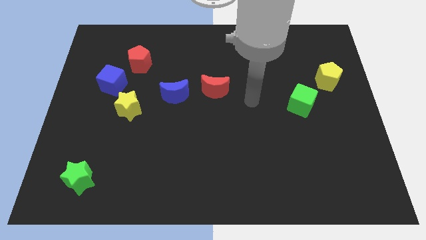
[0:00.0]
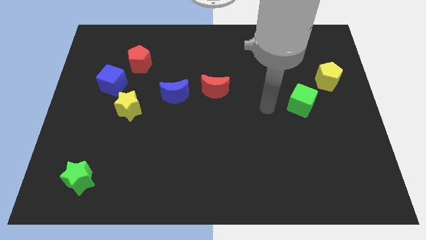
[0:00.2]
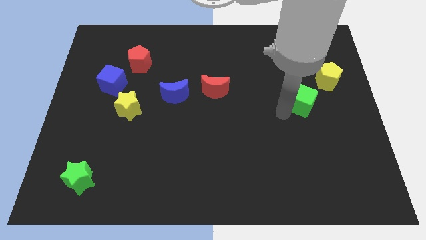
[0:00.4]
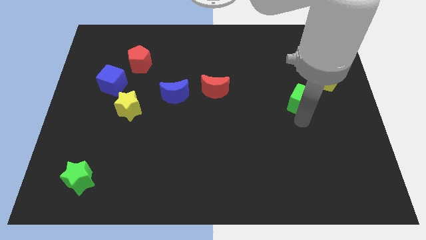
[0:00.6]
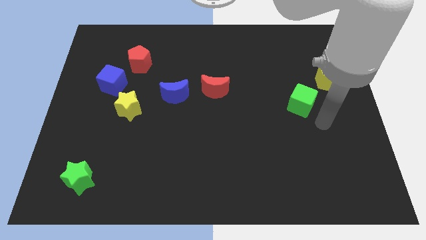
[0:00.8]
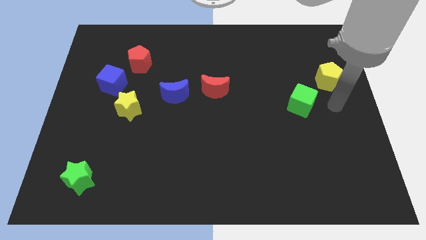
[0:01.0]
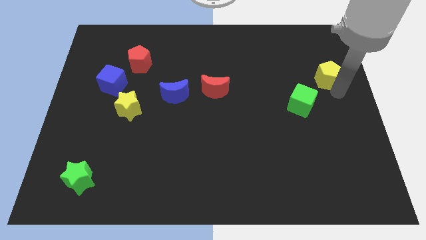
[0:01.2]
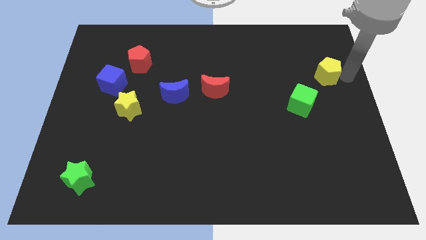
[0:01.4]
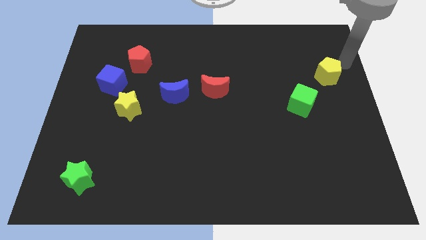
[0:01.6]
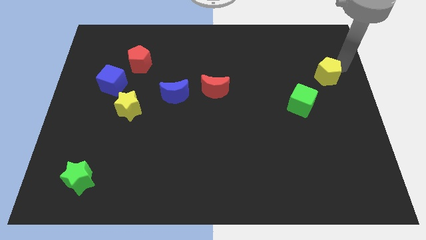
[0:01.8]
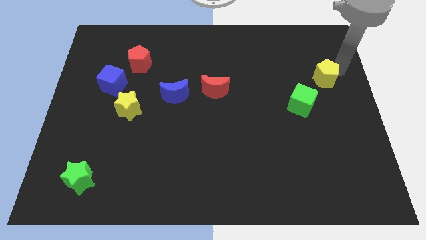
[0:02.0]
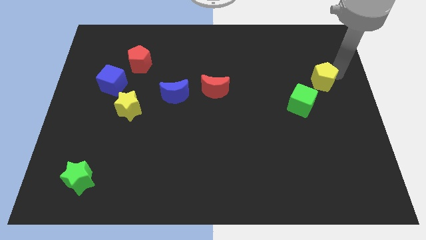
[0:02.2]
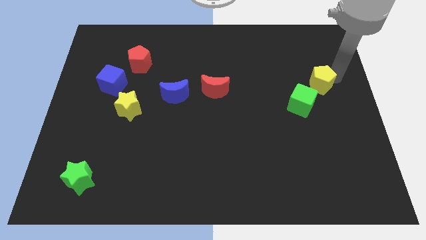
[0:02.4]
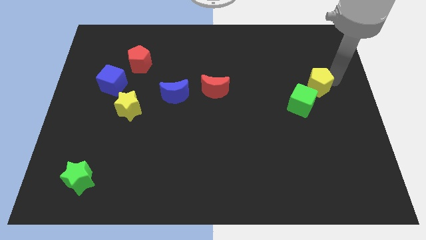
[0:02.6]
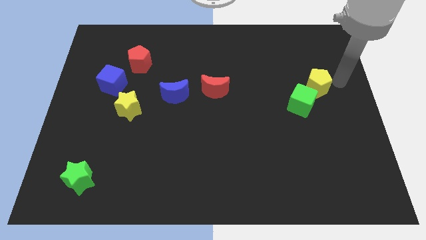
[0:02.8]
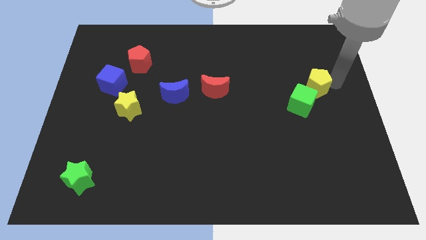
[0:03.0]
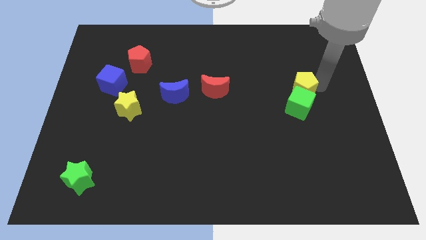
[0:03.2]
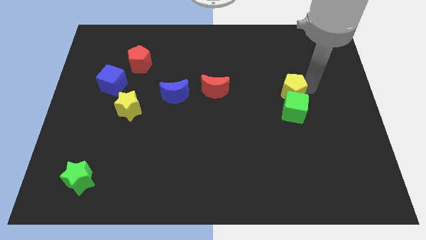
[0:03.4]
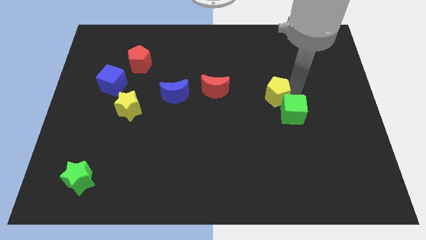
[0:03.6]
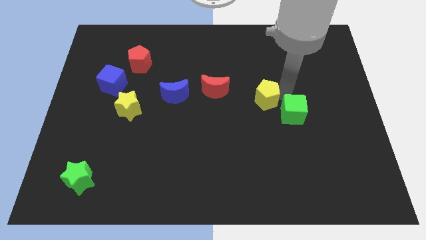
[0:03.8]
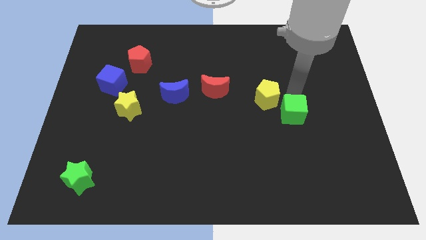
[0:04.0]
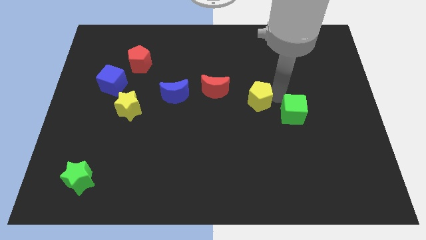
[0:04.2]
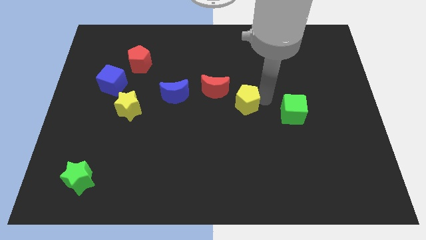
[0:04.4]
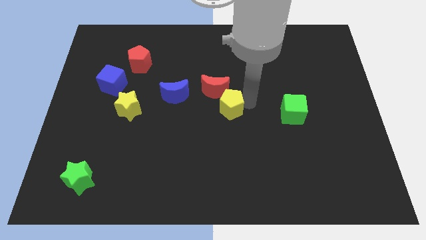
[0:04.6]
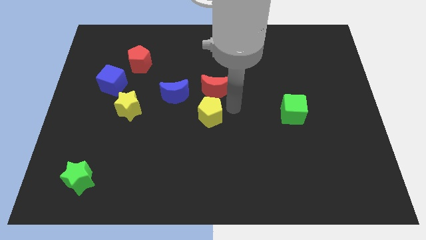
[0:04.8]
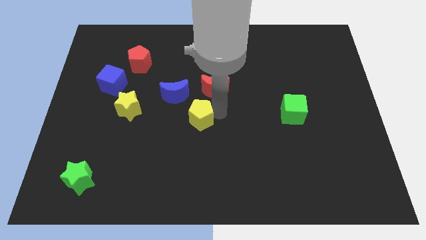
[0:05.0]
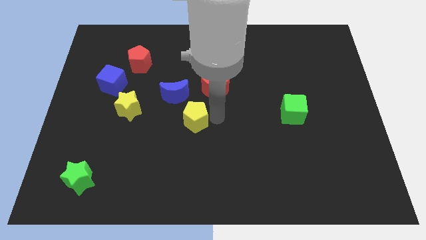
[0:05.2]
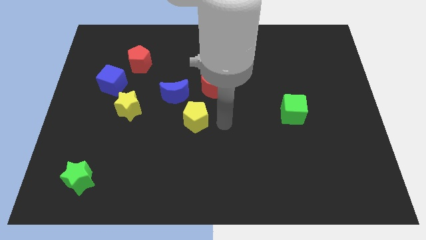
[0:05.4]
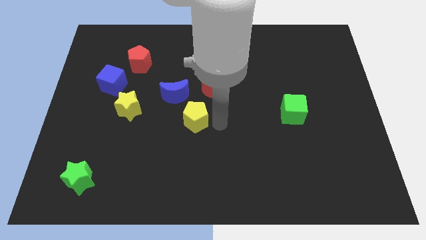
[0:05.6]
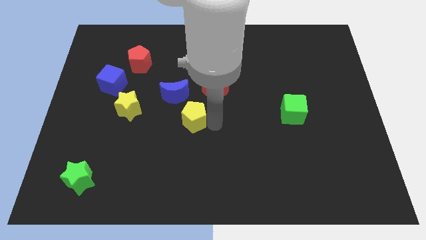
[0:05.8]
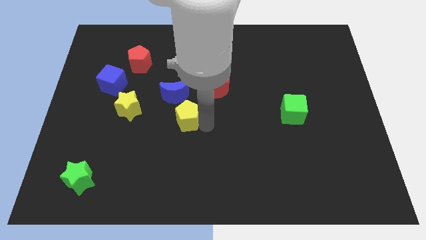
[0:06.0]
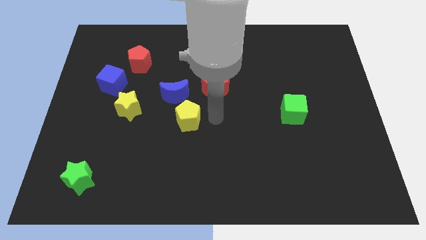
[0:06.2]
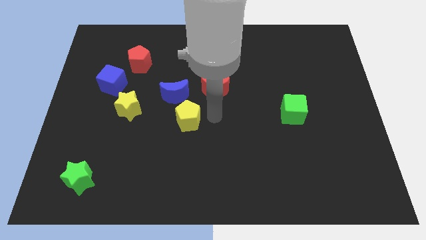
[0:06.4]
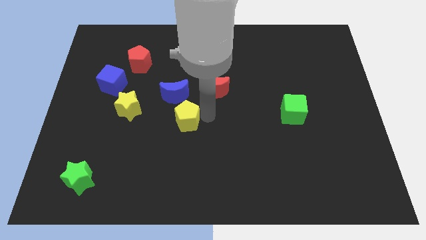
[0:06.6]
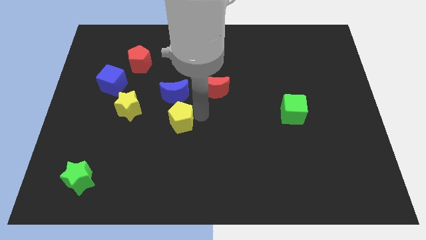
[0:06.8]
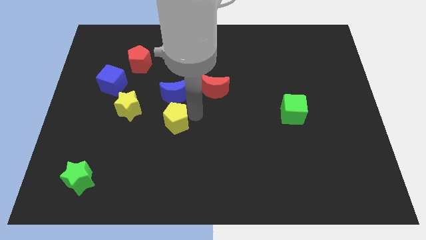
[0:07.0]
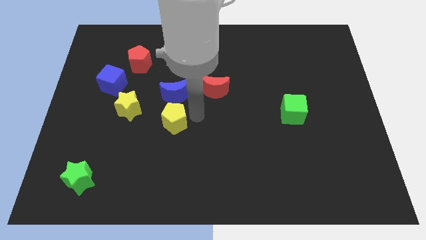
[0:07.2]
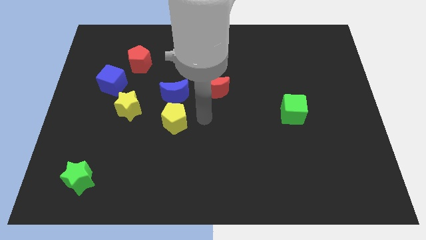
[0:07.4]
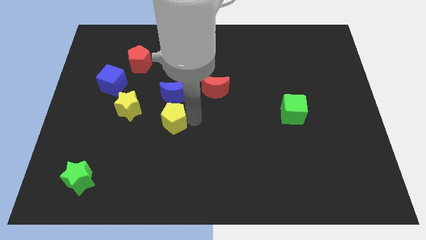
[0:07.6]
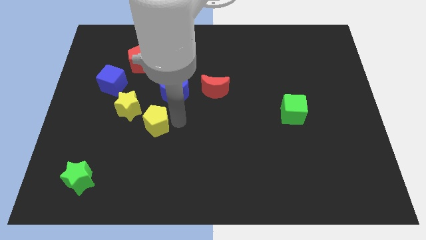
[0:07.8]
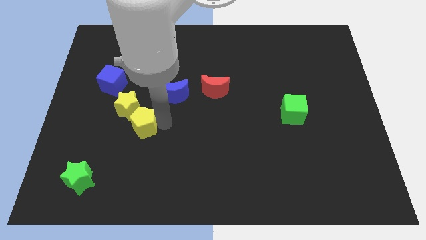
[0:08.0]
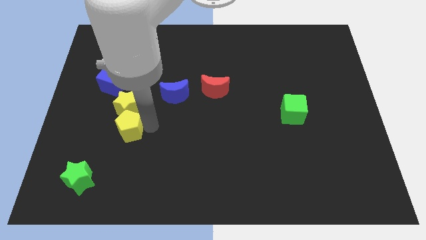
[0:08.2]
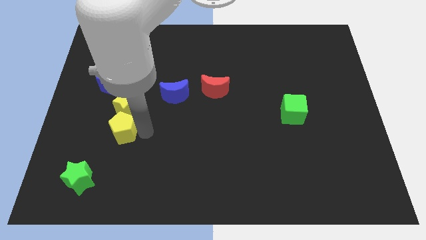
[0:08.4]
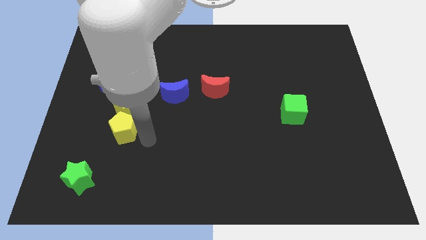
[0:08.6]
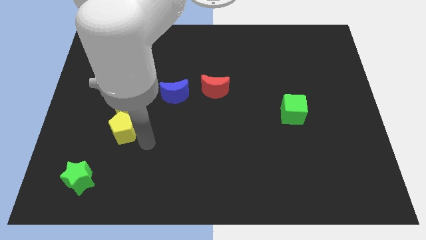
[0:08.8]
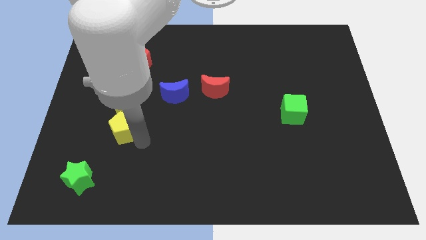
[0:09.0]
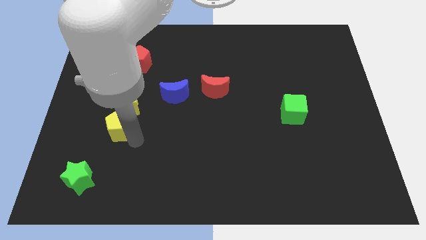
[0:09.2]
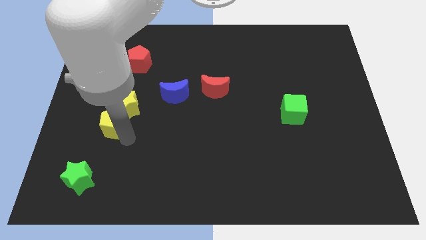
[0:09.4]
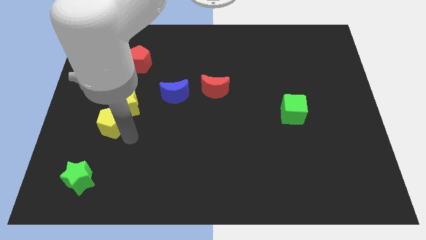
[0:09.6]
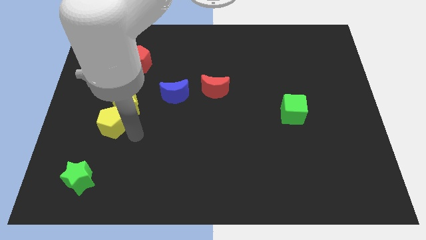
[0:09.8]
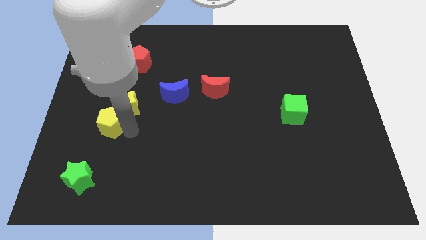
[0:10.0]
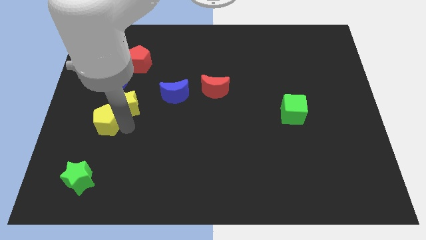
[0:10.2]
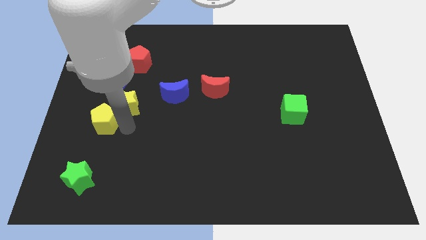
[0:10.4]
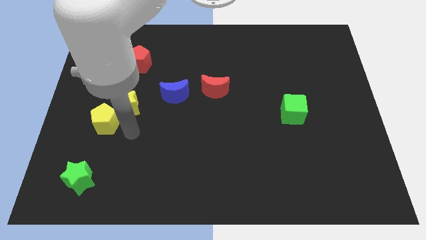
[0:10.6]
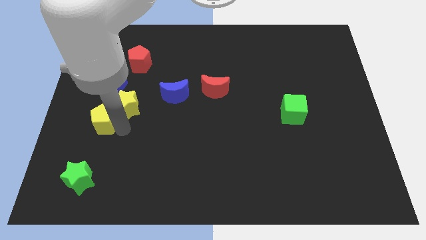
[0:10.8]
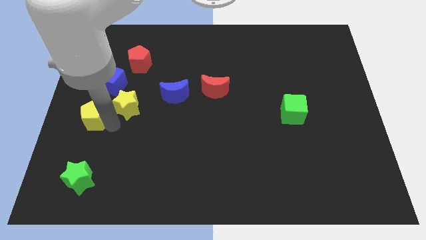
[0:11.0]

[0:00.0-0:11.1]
slide the yellow pentagon to the left side

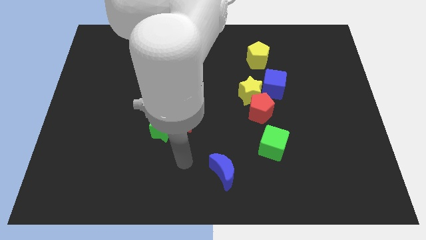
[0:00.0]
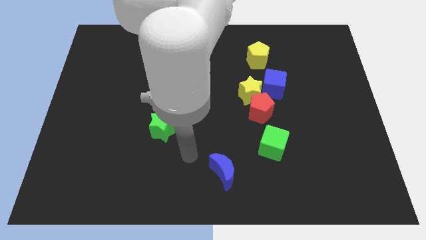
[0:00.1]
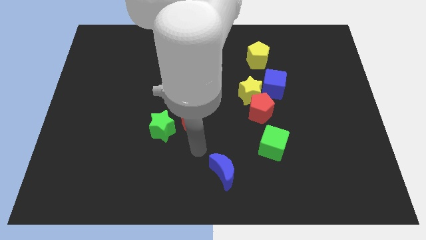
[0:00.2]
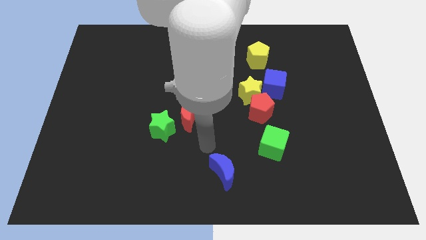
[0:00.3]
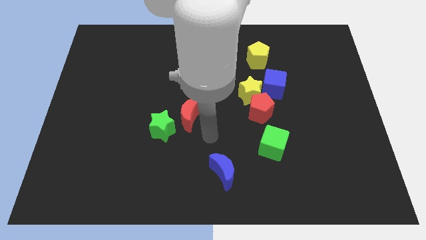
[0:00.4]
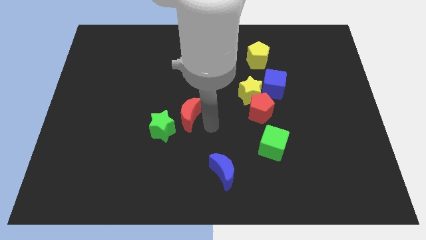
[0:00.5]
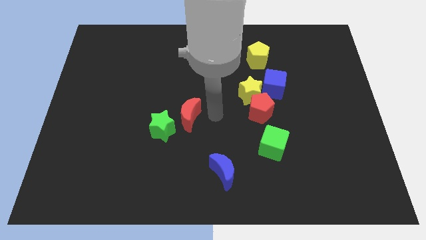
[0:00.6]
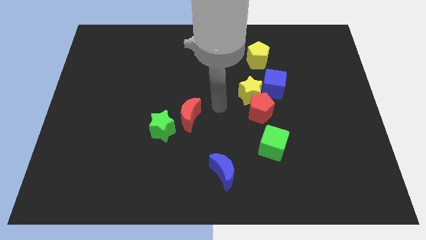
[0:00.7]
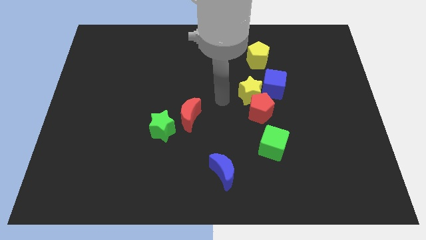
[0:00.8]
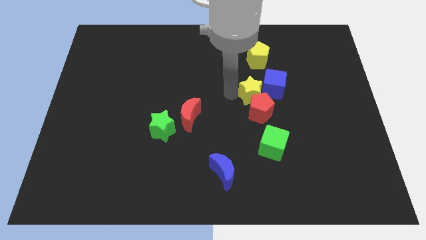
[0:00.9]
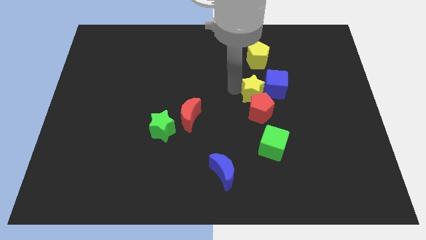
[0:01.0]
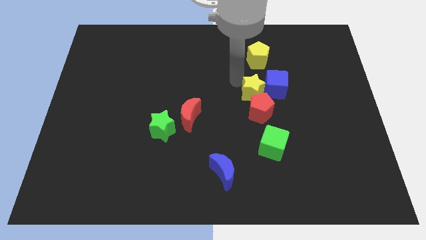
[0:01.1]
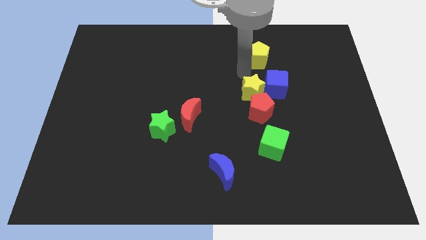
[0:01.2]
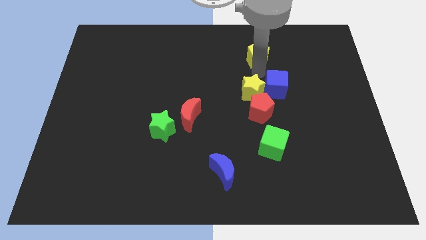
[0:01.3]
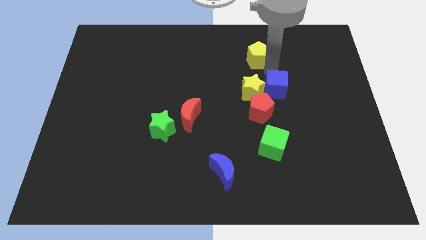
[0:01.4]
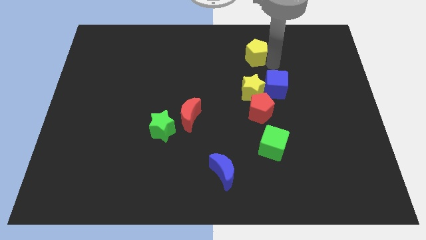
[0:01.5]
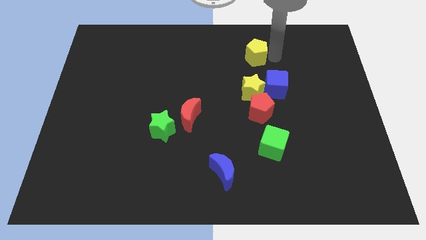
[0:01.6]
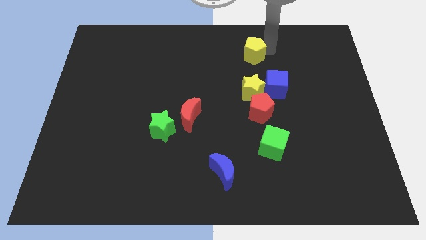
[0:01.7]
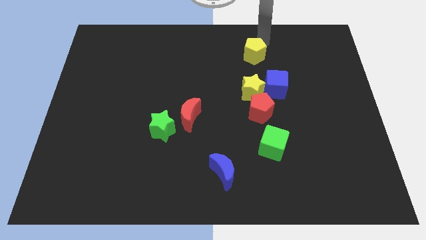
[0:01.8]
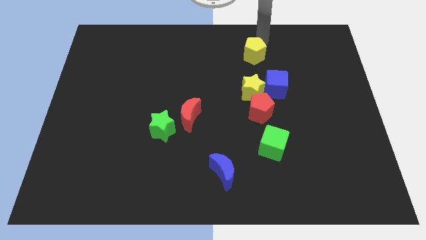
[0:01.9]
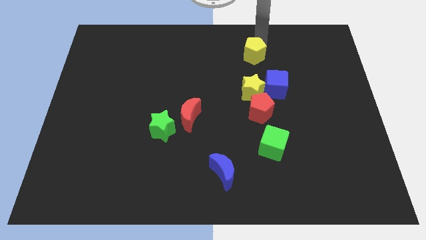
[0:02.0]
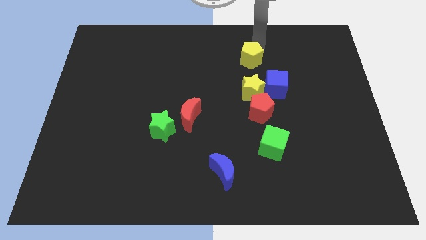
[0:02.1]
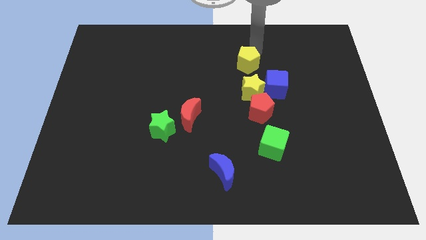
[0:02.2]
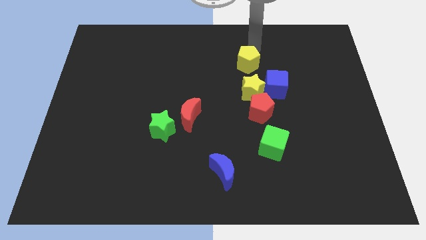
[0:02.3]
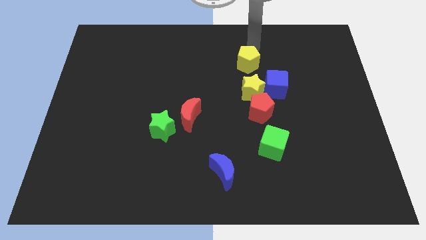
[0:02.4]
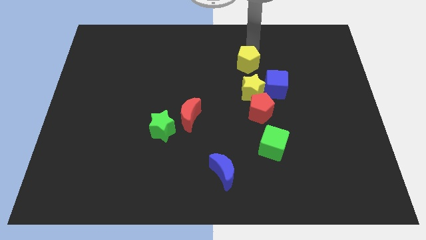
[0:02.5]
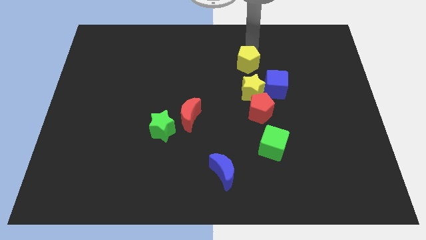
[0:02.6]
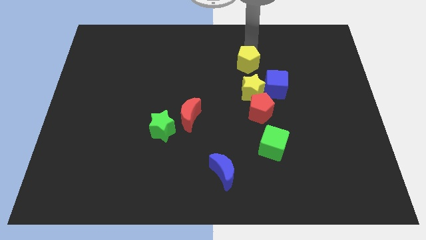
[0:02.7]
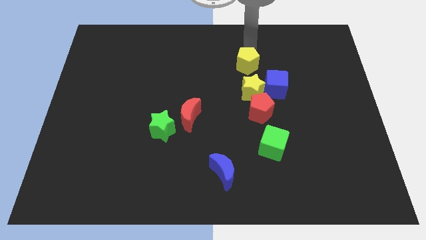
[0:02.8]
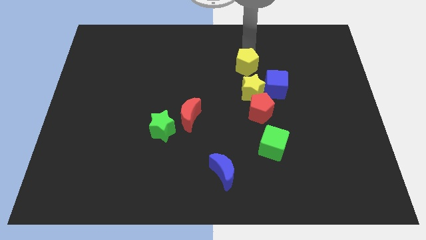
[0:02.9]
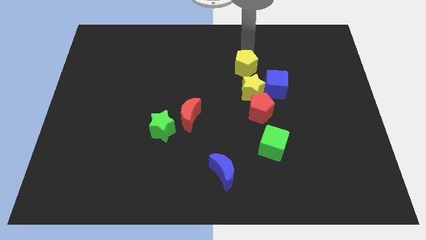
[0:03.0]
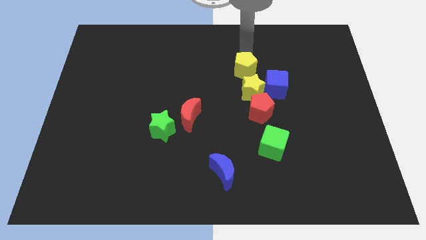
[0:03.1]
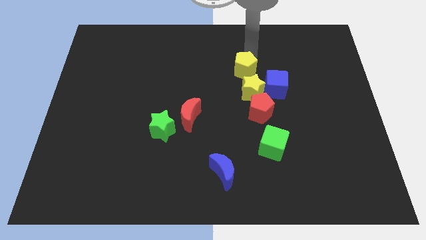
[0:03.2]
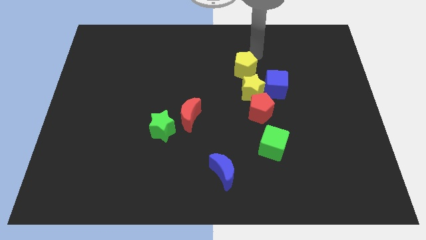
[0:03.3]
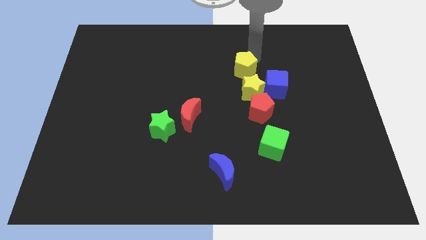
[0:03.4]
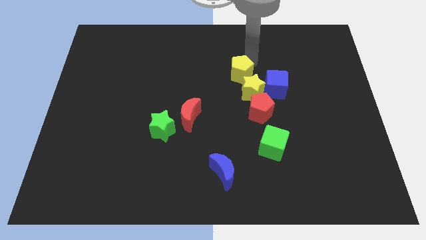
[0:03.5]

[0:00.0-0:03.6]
slide the yellow pentagon to the middle
